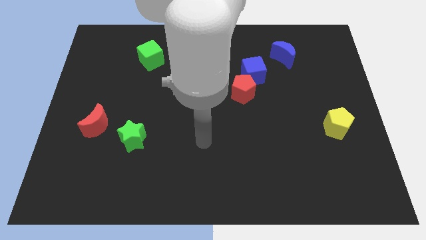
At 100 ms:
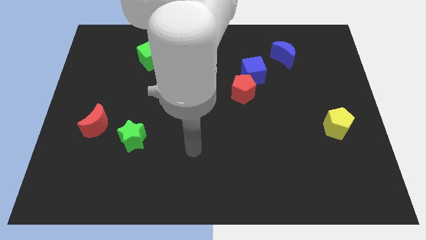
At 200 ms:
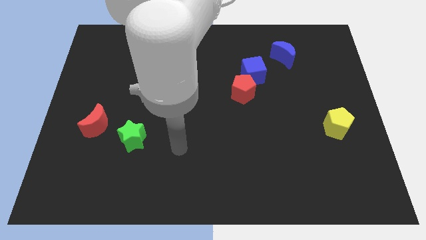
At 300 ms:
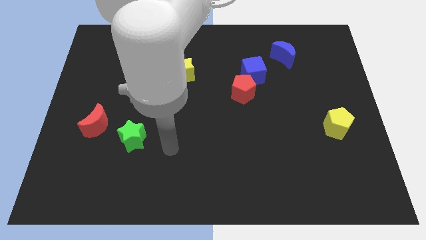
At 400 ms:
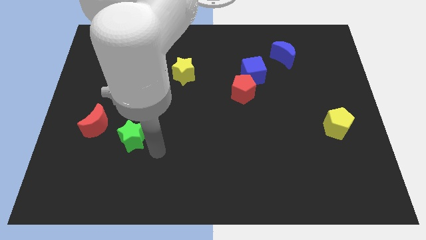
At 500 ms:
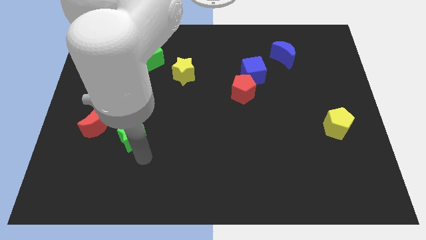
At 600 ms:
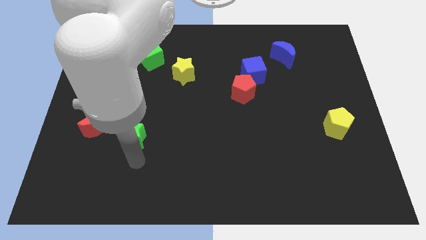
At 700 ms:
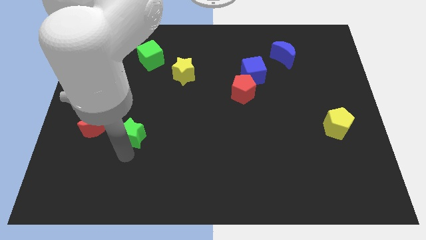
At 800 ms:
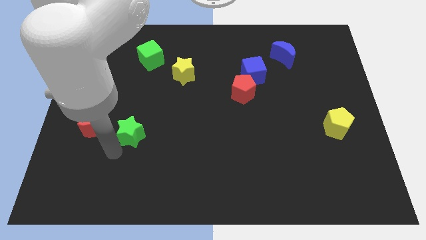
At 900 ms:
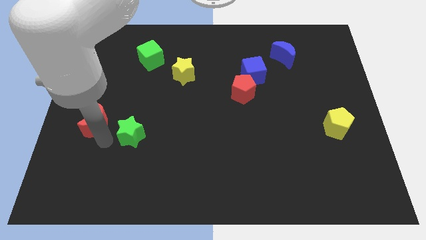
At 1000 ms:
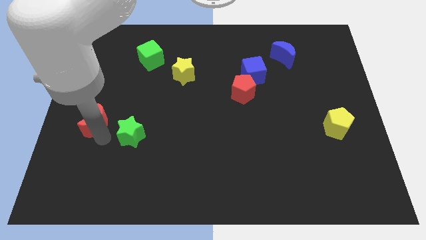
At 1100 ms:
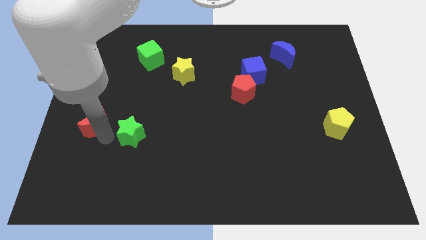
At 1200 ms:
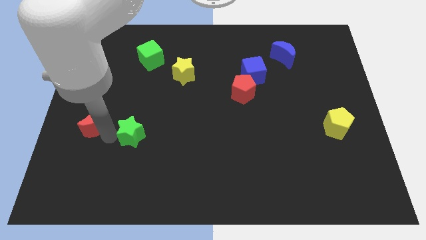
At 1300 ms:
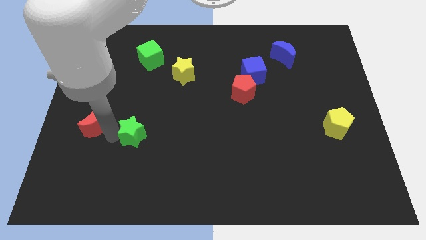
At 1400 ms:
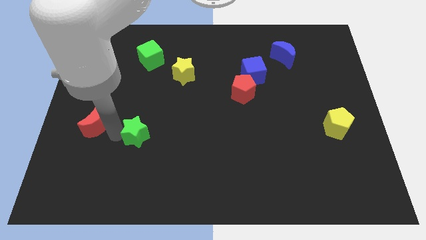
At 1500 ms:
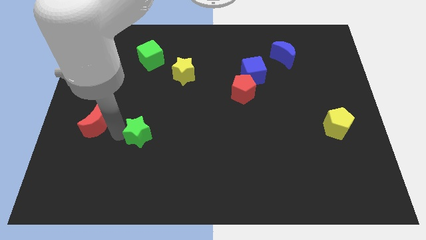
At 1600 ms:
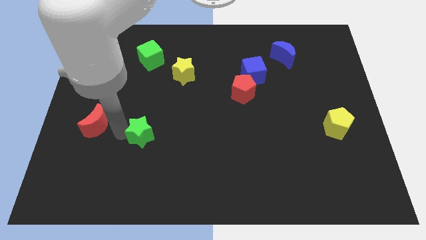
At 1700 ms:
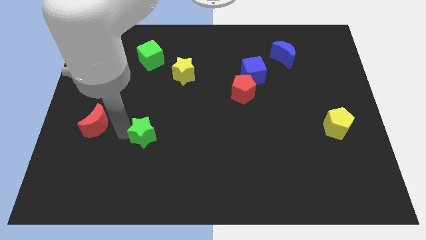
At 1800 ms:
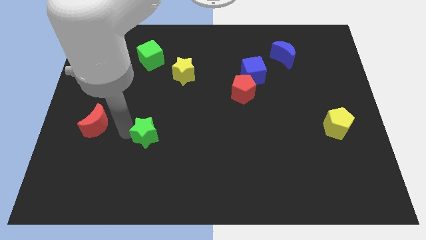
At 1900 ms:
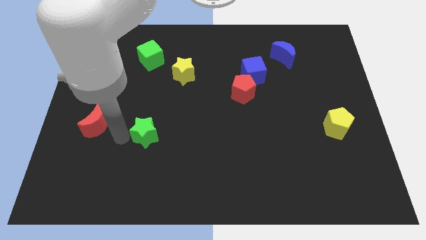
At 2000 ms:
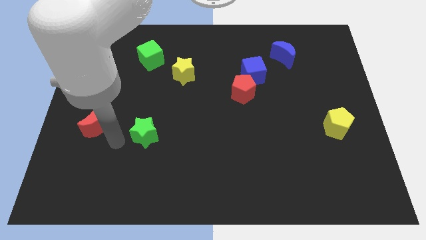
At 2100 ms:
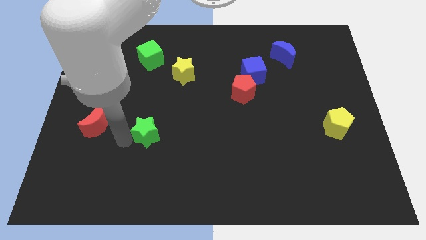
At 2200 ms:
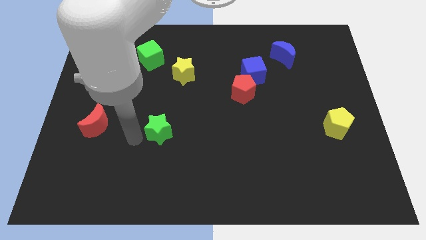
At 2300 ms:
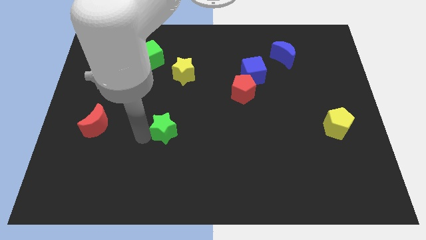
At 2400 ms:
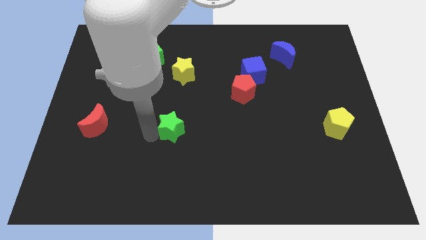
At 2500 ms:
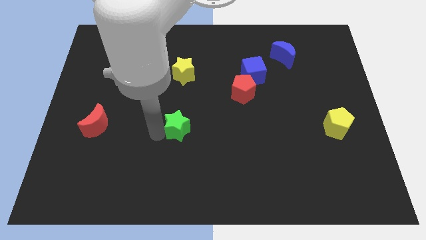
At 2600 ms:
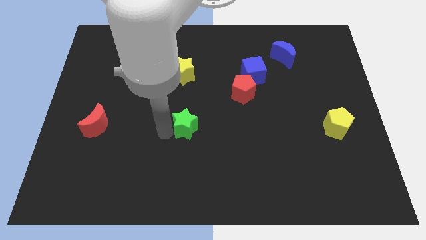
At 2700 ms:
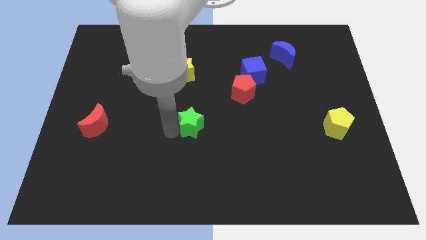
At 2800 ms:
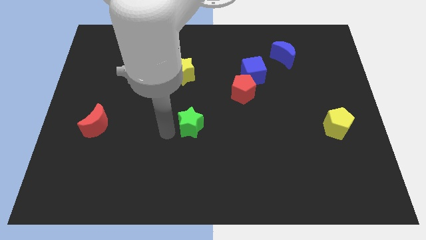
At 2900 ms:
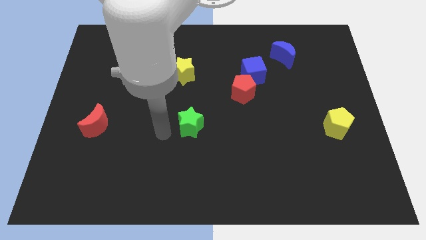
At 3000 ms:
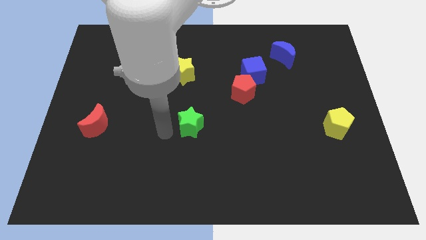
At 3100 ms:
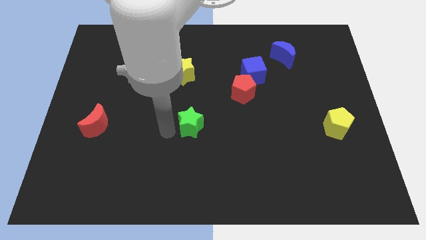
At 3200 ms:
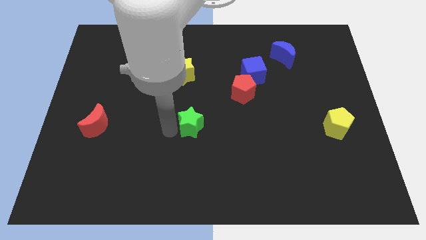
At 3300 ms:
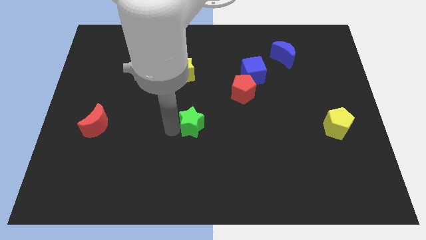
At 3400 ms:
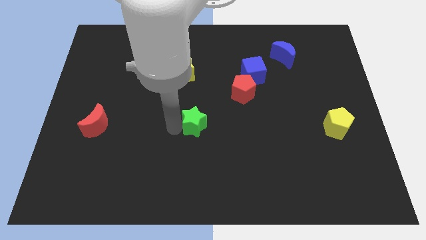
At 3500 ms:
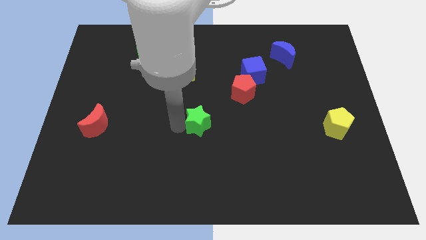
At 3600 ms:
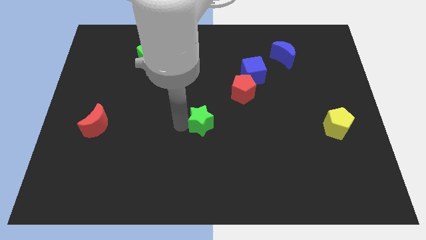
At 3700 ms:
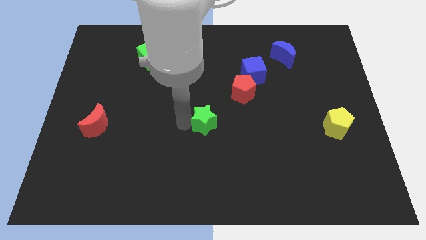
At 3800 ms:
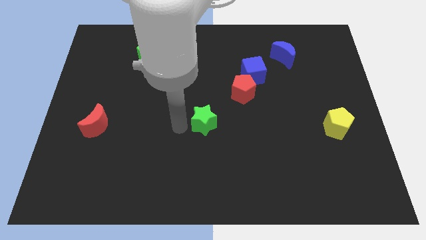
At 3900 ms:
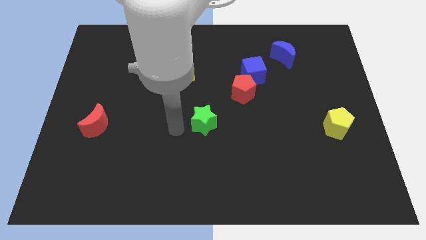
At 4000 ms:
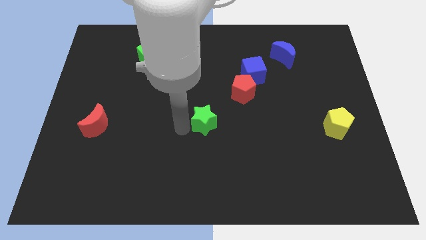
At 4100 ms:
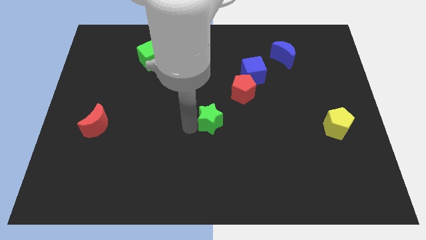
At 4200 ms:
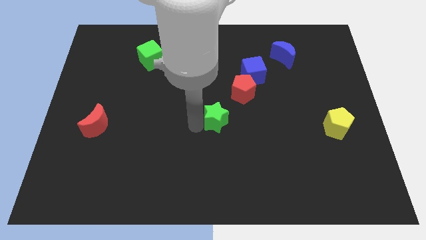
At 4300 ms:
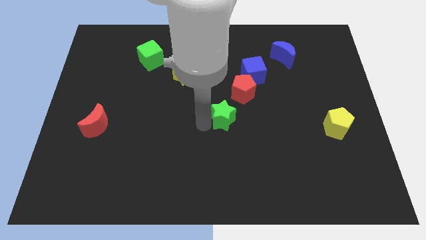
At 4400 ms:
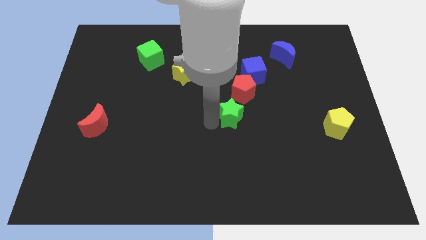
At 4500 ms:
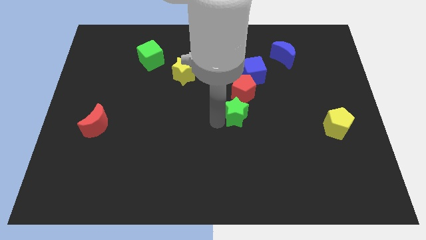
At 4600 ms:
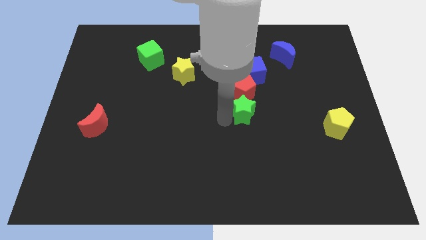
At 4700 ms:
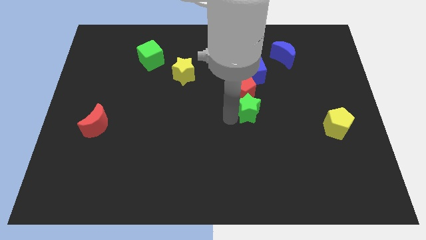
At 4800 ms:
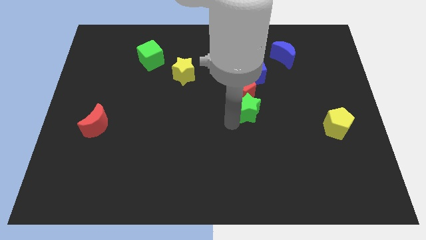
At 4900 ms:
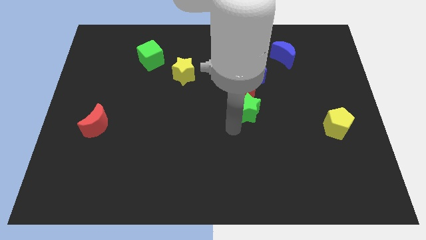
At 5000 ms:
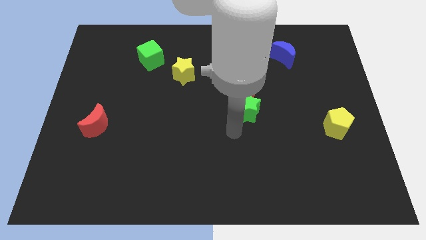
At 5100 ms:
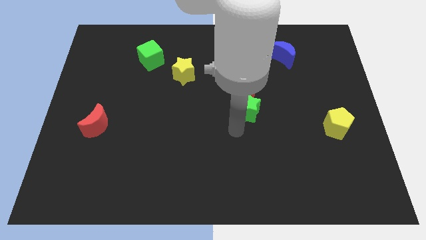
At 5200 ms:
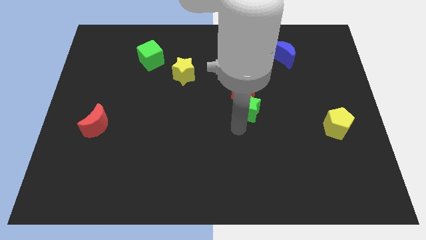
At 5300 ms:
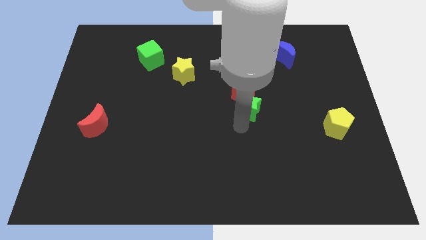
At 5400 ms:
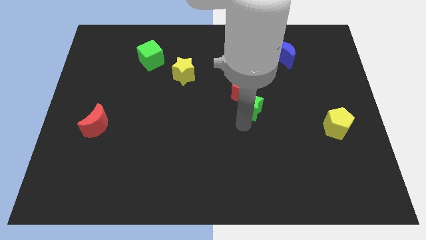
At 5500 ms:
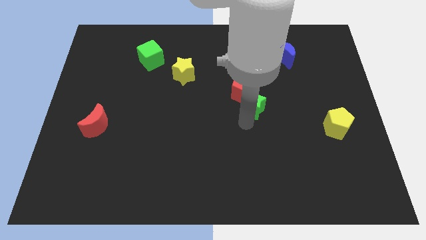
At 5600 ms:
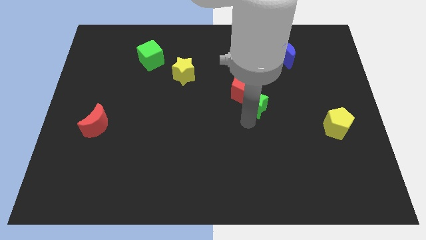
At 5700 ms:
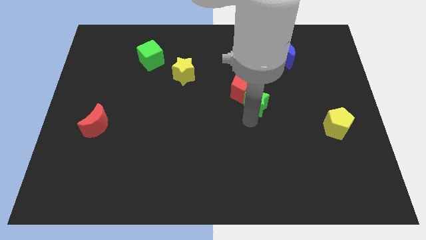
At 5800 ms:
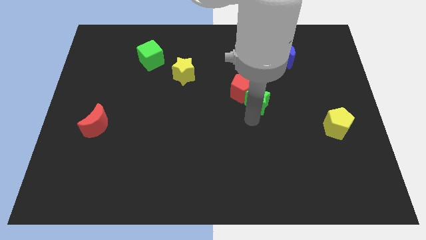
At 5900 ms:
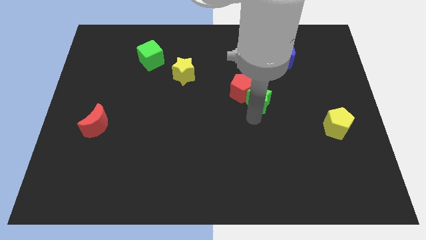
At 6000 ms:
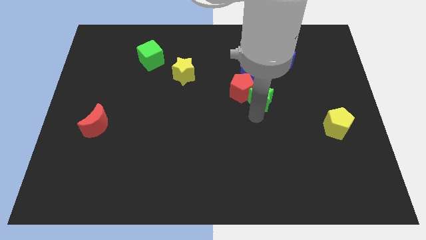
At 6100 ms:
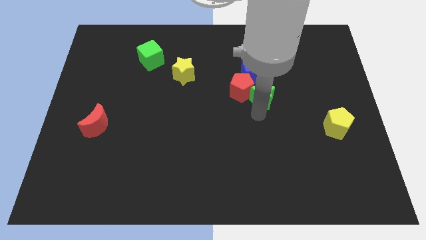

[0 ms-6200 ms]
push the green star to the bottom right side of the blue cube

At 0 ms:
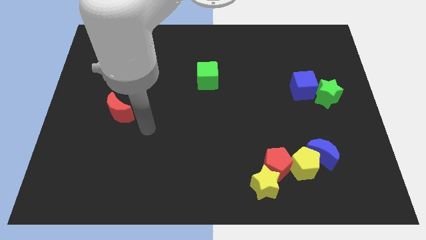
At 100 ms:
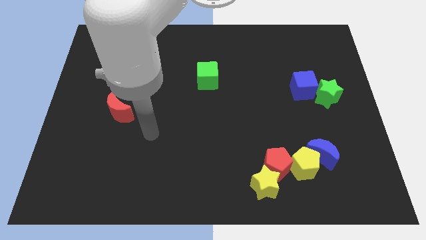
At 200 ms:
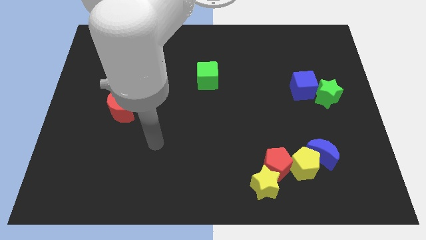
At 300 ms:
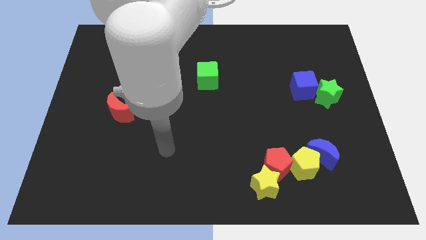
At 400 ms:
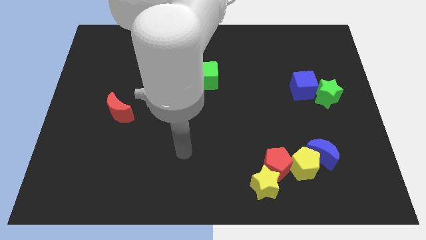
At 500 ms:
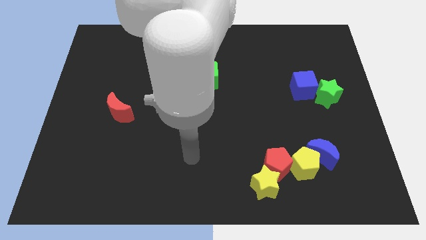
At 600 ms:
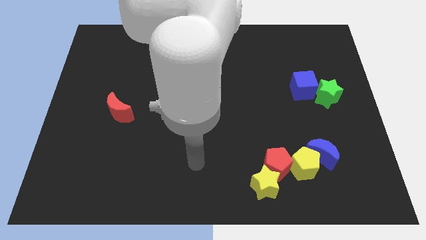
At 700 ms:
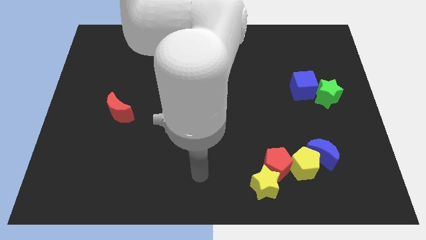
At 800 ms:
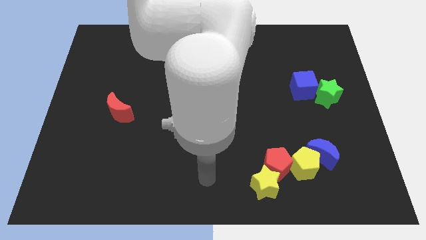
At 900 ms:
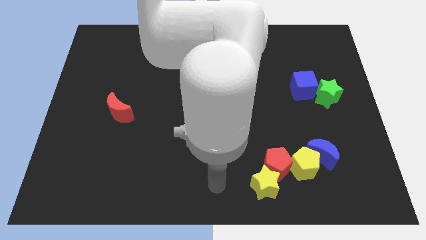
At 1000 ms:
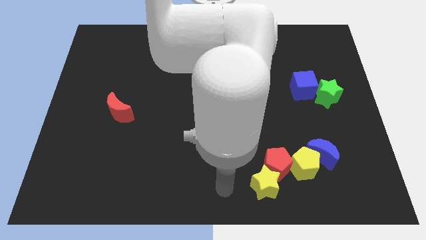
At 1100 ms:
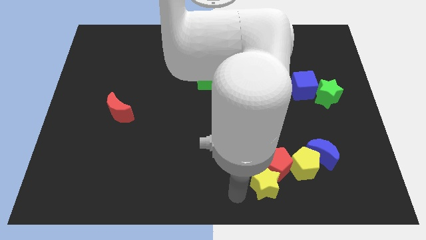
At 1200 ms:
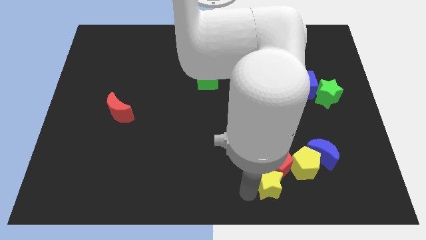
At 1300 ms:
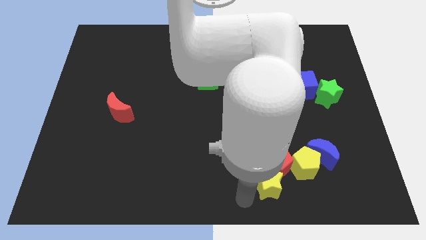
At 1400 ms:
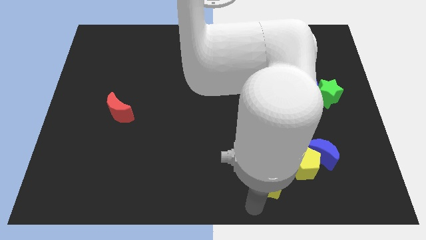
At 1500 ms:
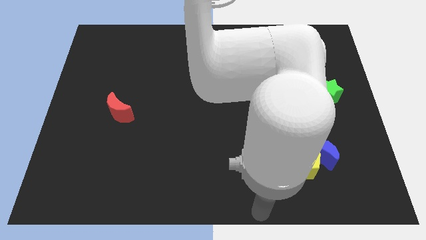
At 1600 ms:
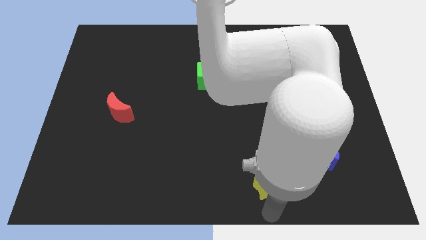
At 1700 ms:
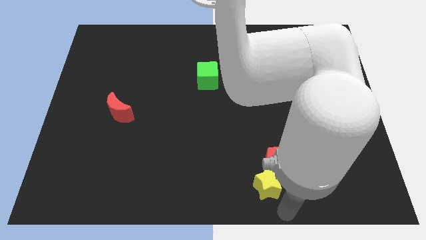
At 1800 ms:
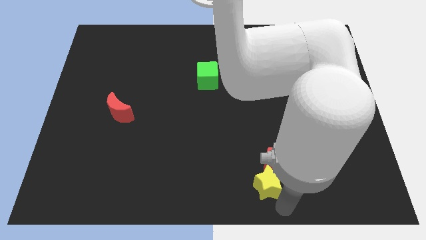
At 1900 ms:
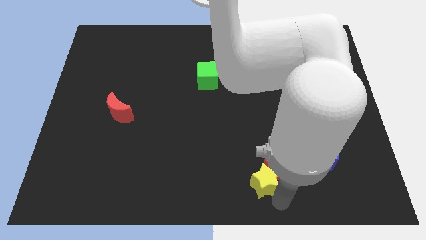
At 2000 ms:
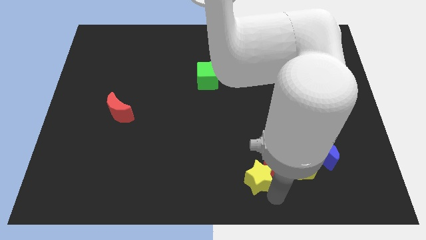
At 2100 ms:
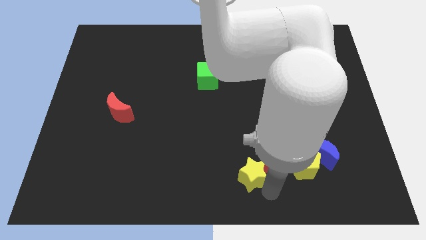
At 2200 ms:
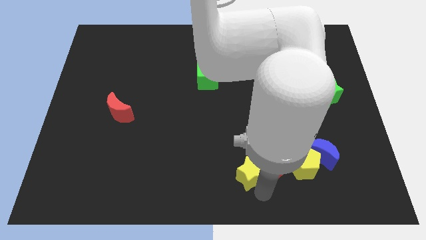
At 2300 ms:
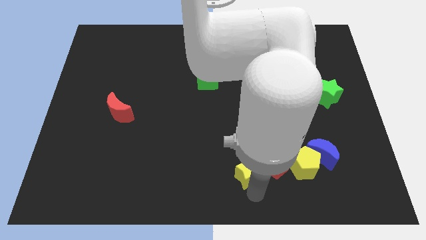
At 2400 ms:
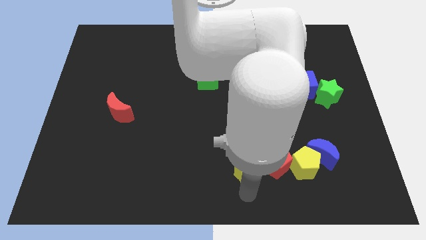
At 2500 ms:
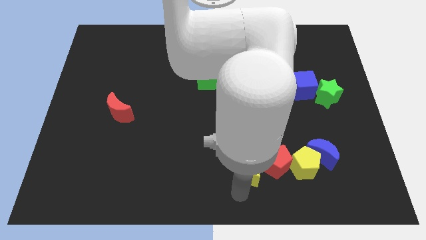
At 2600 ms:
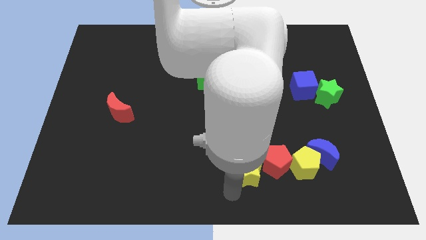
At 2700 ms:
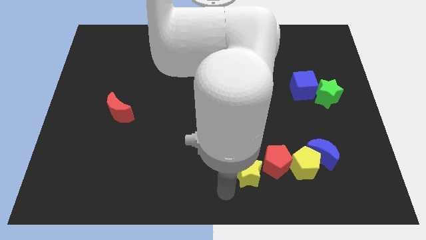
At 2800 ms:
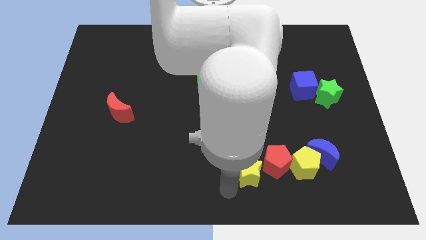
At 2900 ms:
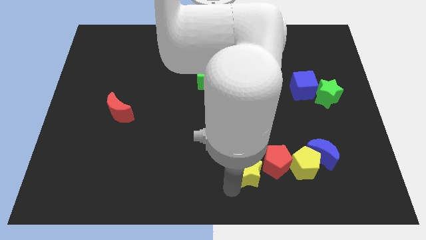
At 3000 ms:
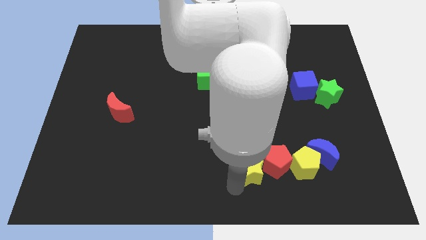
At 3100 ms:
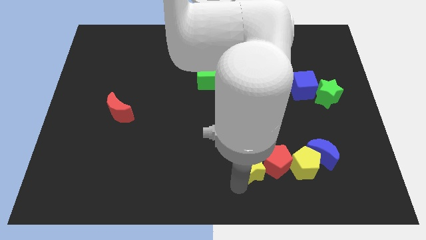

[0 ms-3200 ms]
move the yellow star to the left side of the blue moon
